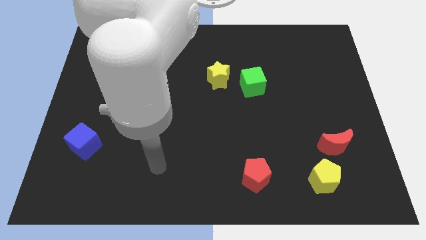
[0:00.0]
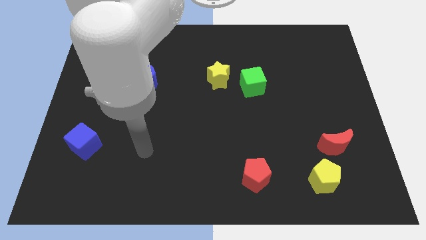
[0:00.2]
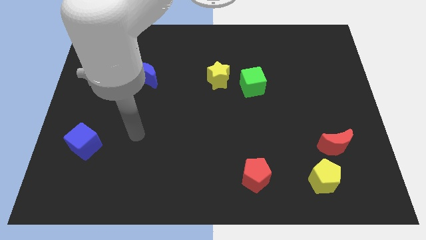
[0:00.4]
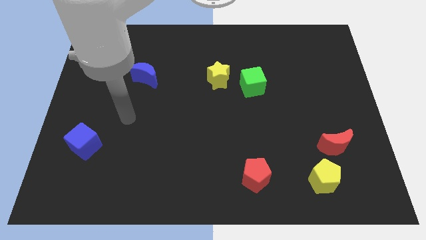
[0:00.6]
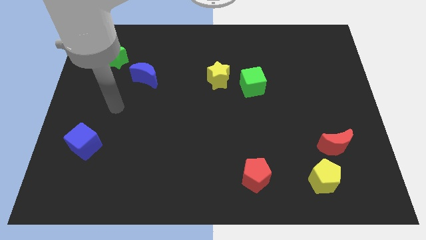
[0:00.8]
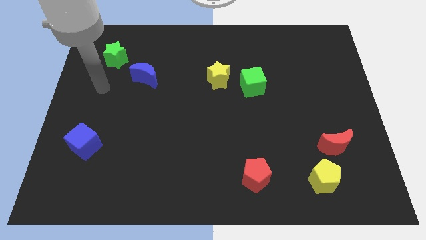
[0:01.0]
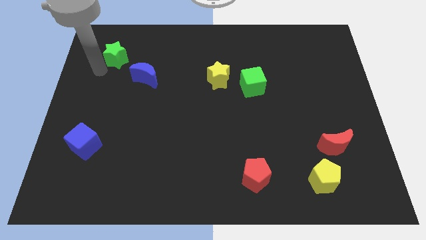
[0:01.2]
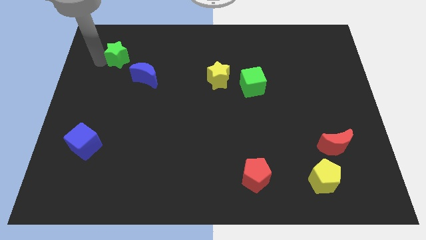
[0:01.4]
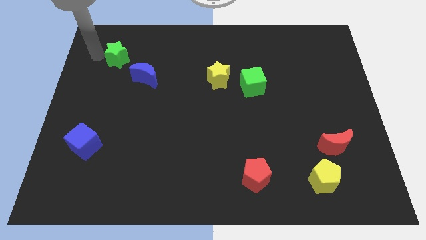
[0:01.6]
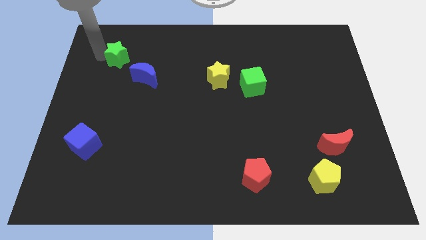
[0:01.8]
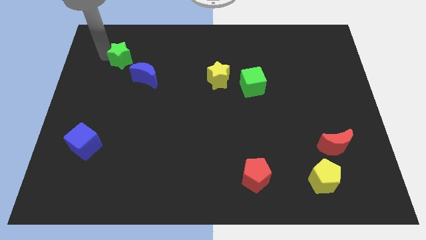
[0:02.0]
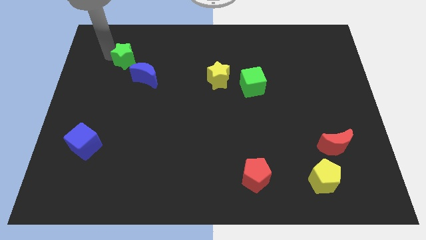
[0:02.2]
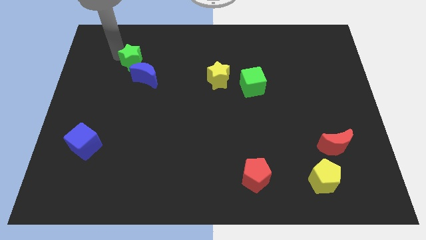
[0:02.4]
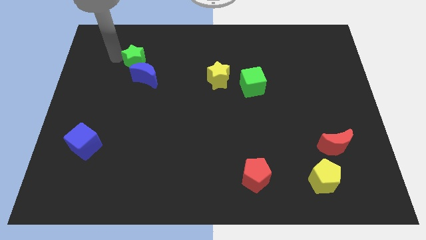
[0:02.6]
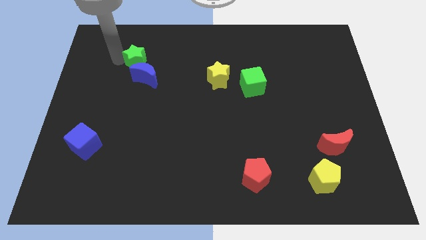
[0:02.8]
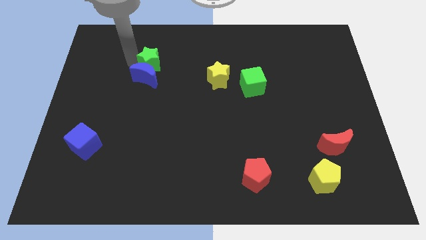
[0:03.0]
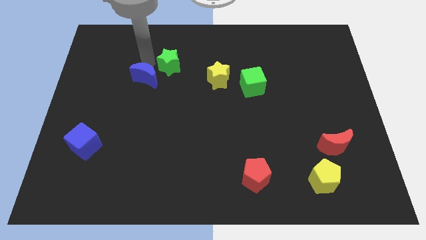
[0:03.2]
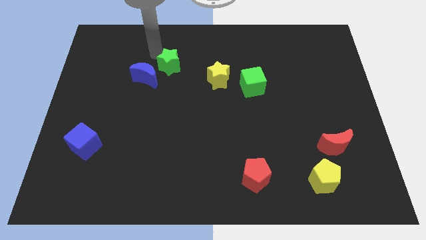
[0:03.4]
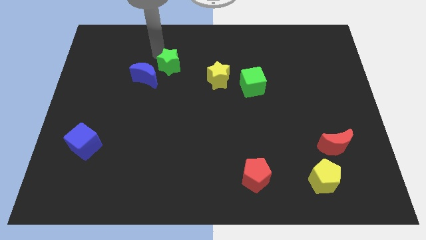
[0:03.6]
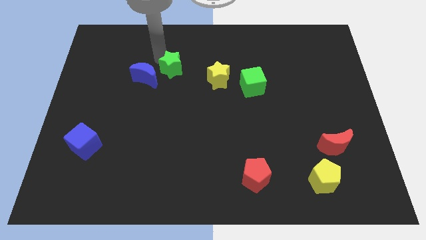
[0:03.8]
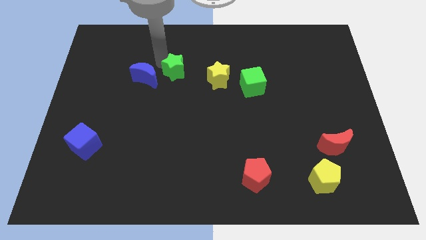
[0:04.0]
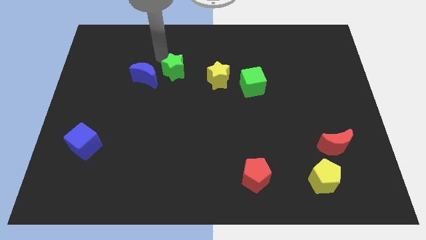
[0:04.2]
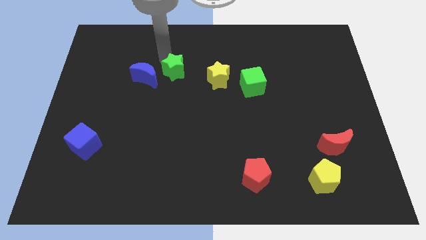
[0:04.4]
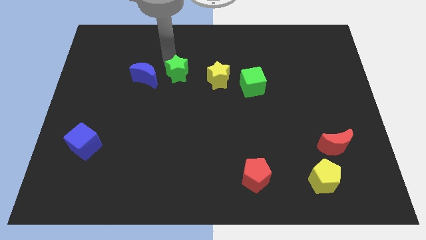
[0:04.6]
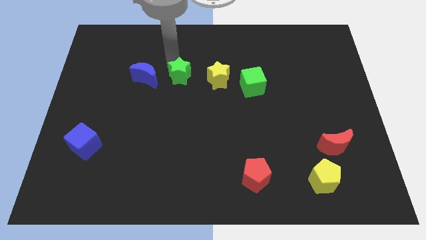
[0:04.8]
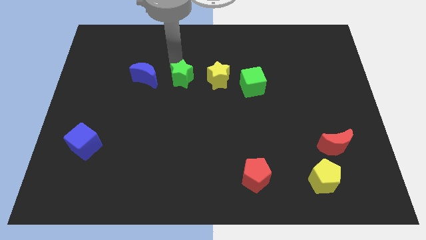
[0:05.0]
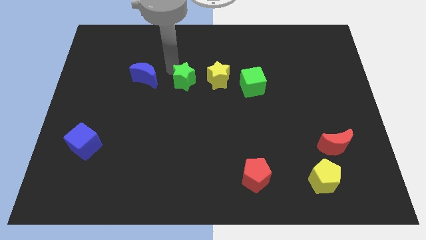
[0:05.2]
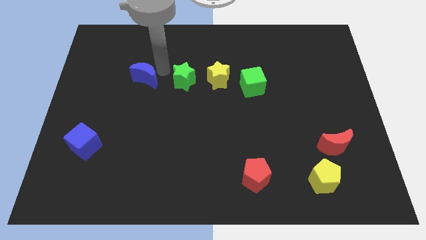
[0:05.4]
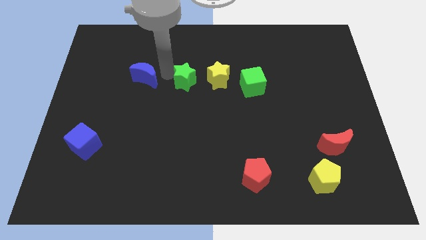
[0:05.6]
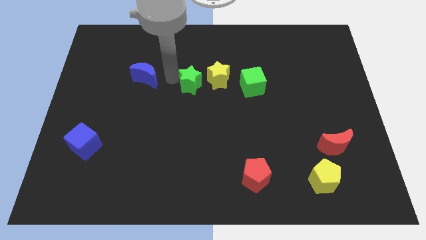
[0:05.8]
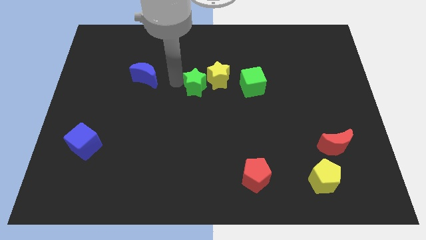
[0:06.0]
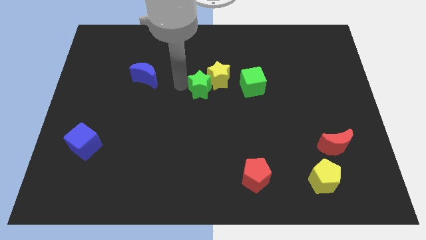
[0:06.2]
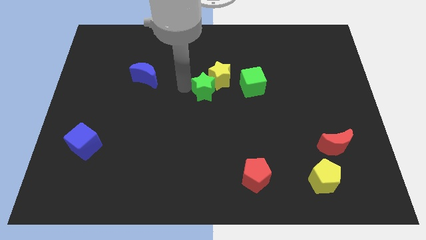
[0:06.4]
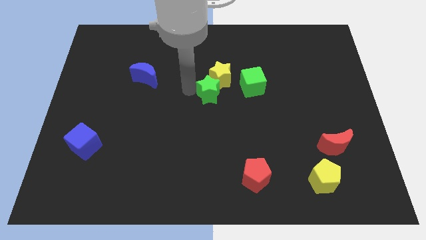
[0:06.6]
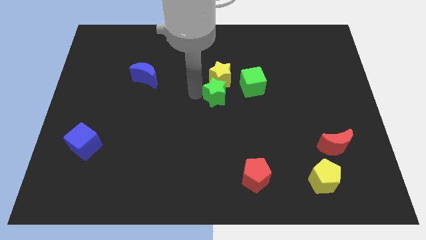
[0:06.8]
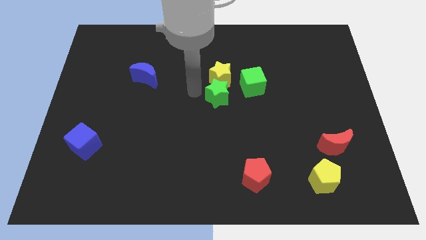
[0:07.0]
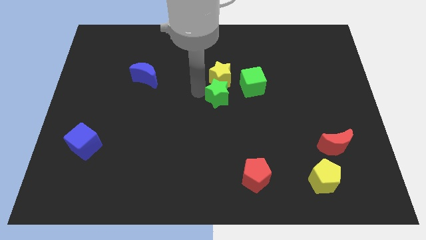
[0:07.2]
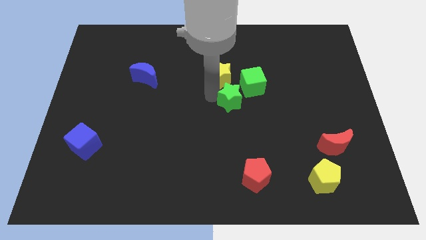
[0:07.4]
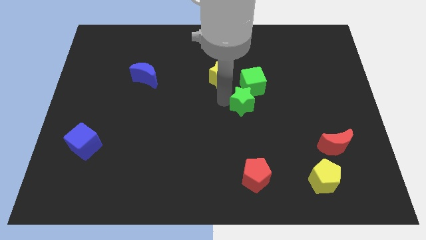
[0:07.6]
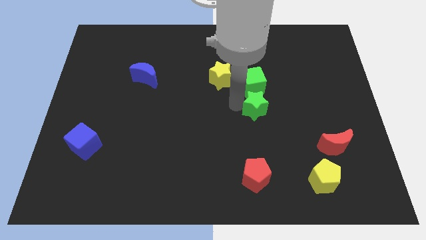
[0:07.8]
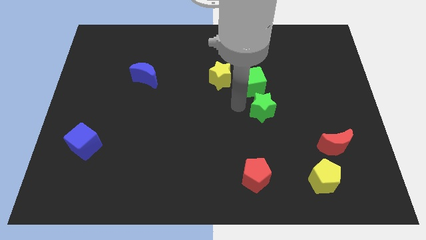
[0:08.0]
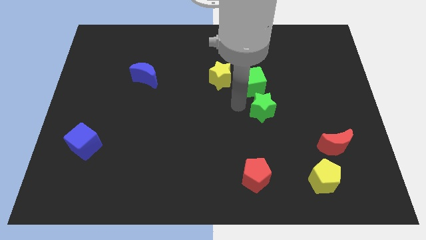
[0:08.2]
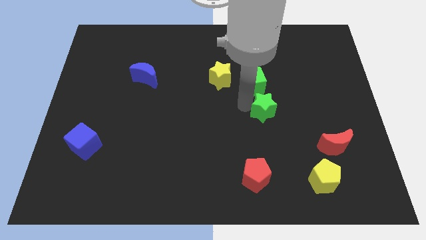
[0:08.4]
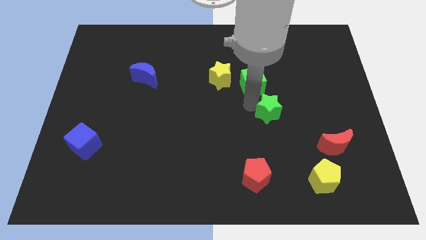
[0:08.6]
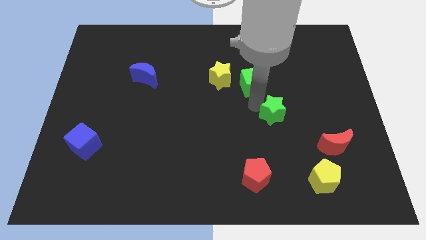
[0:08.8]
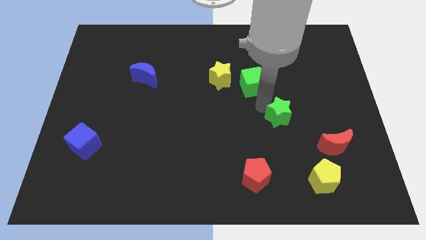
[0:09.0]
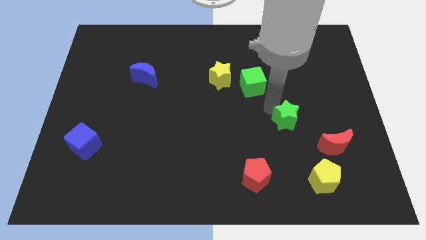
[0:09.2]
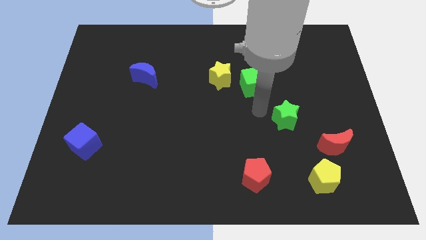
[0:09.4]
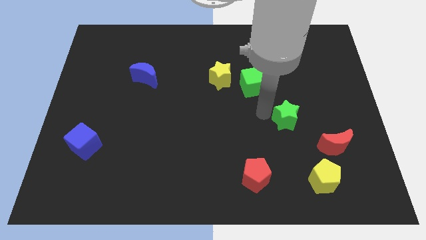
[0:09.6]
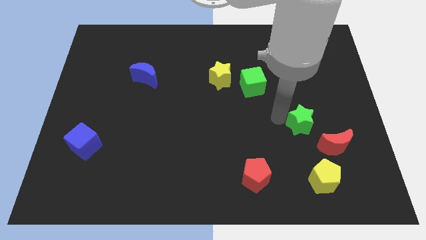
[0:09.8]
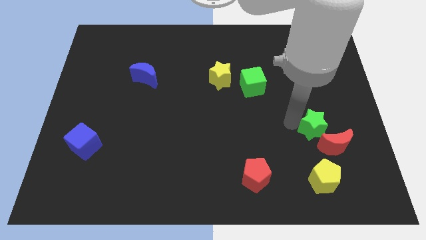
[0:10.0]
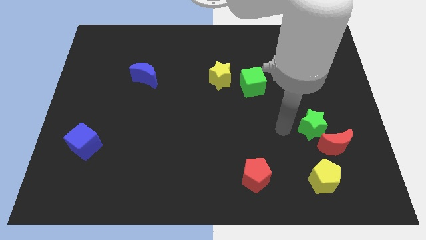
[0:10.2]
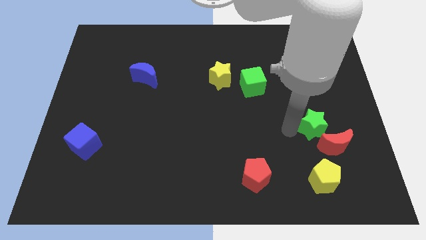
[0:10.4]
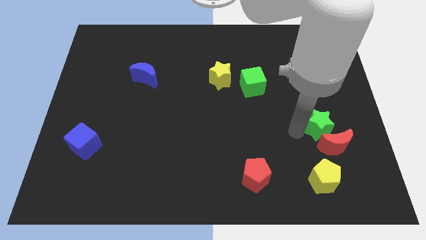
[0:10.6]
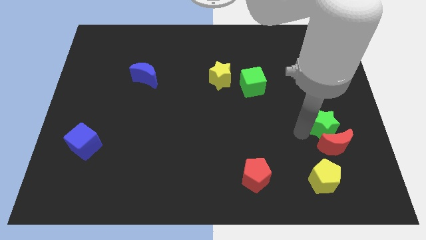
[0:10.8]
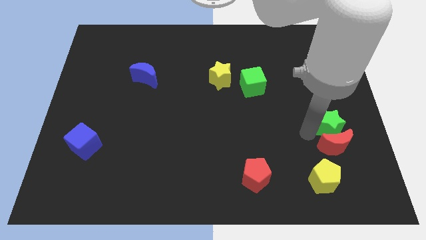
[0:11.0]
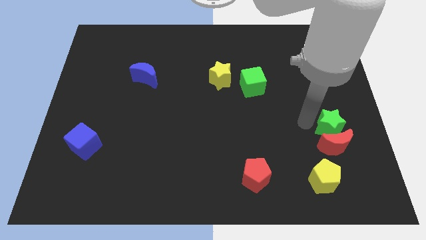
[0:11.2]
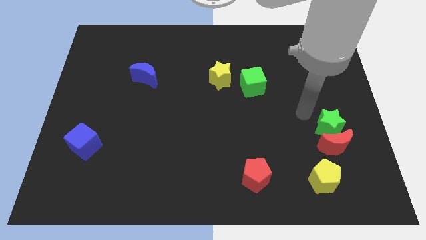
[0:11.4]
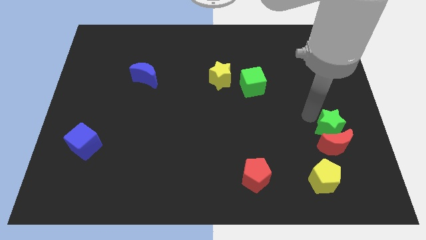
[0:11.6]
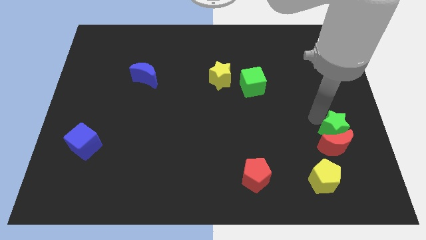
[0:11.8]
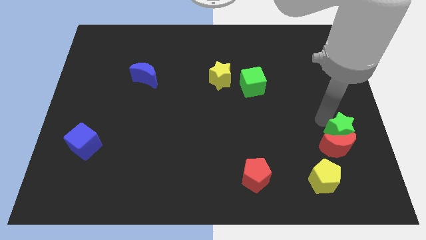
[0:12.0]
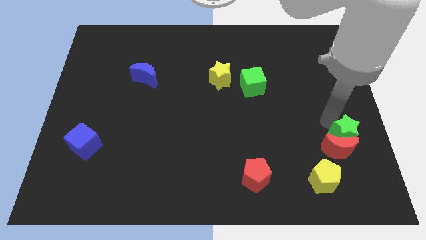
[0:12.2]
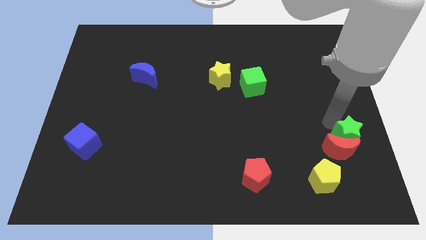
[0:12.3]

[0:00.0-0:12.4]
put the green star diagonally up and to the right of the yellow pentagon
